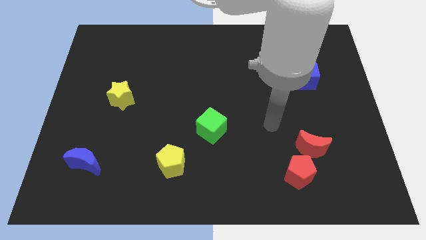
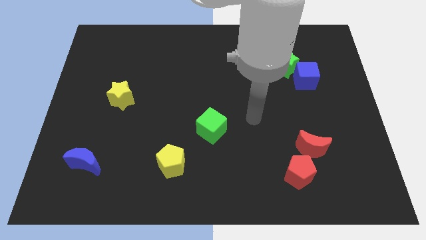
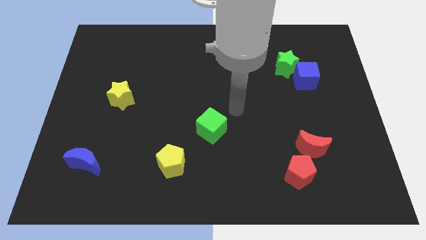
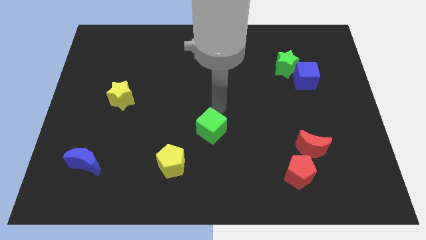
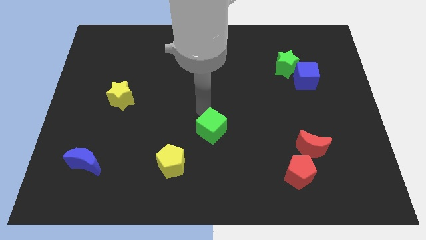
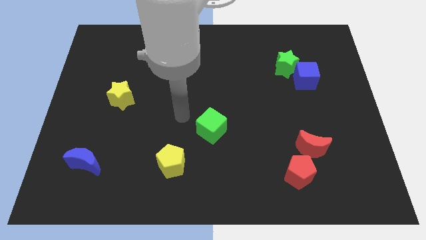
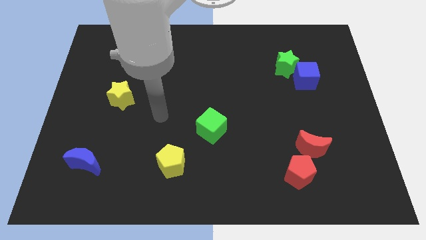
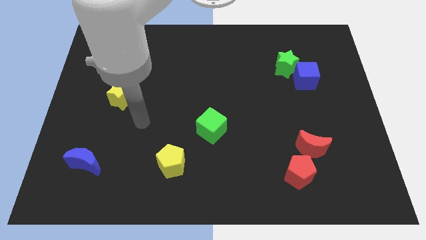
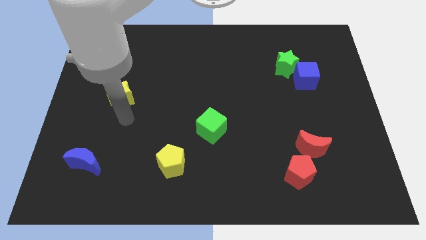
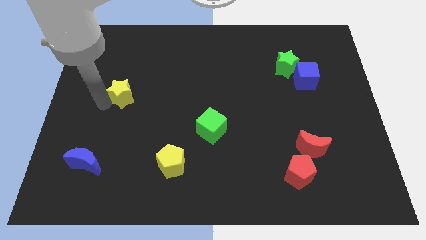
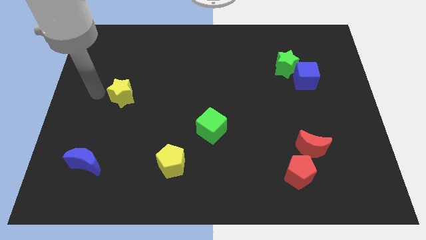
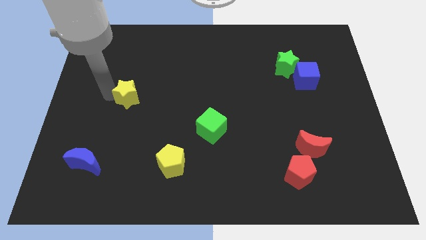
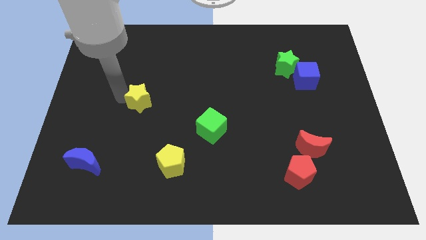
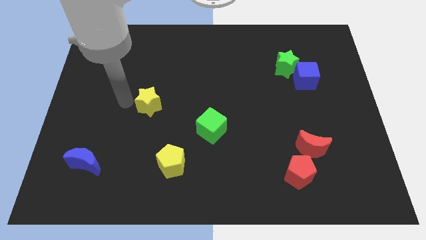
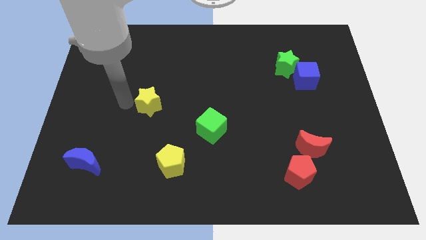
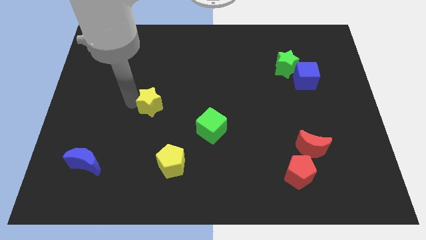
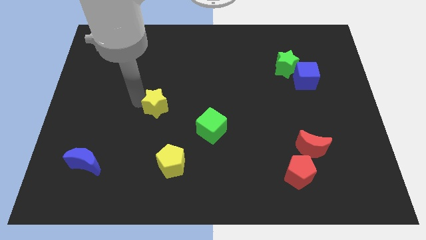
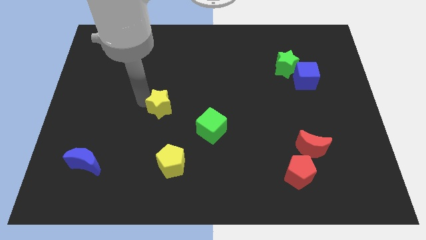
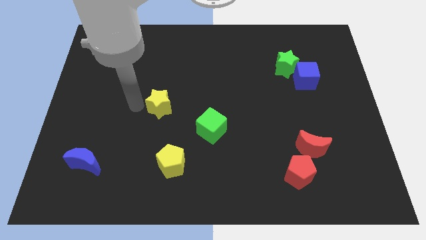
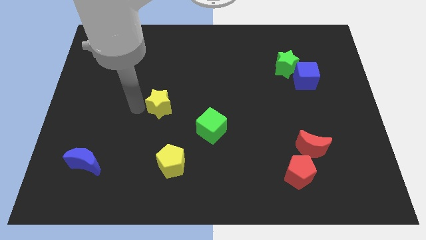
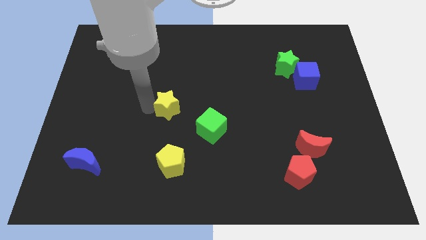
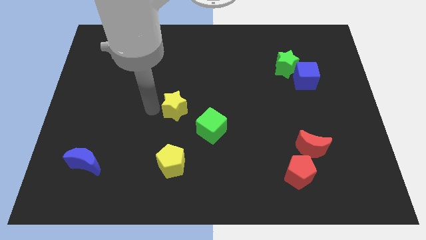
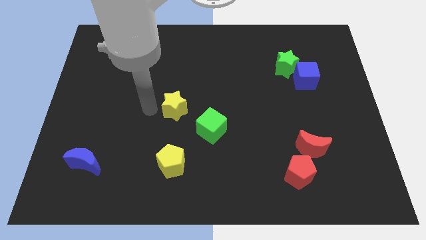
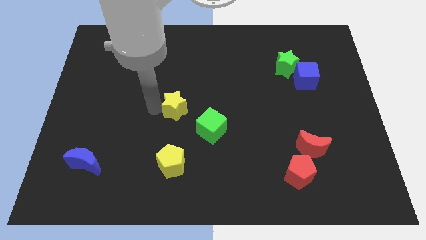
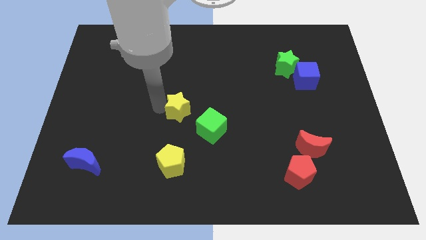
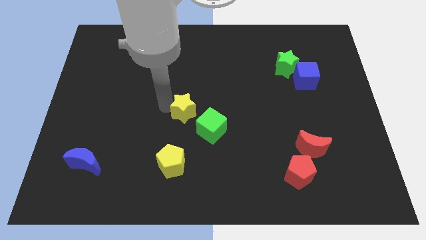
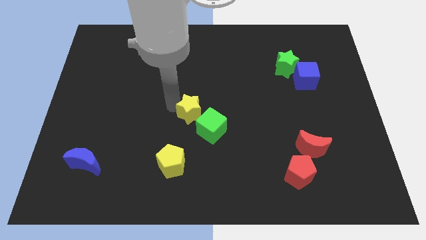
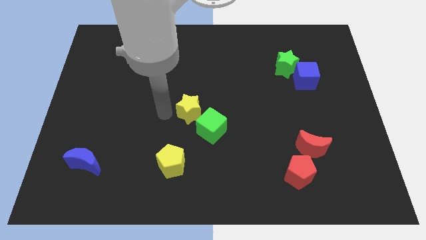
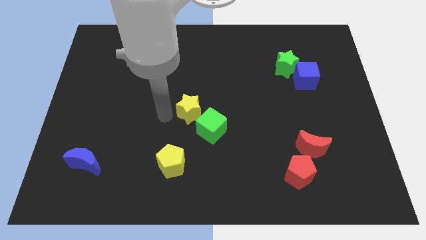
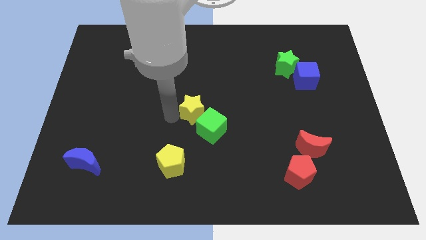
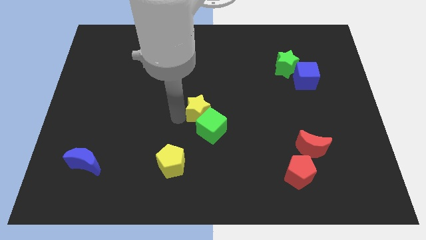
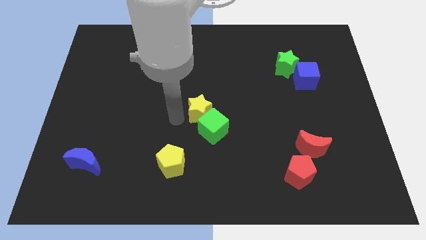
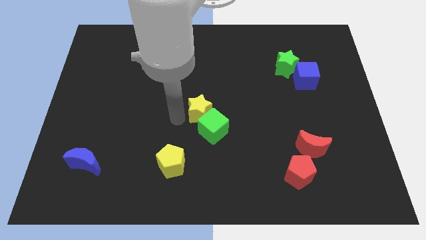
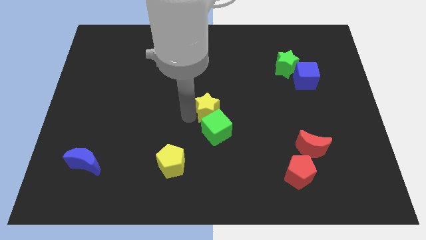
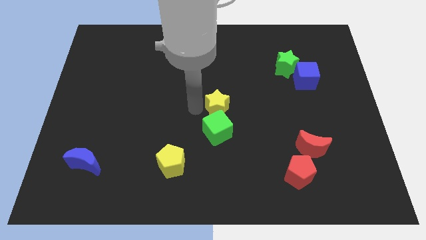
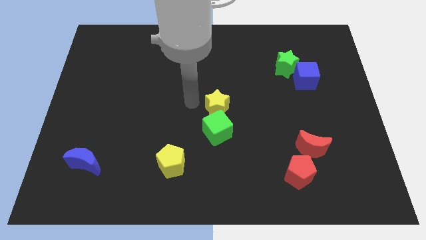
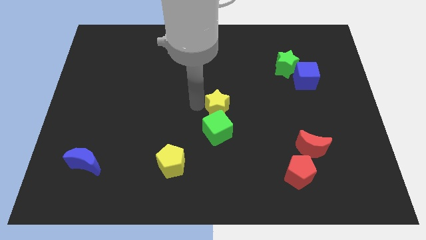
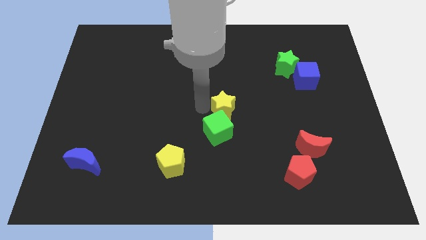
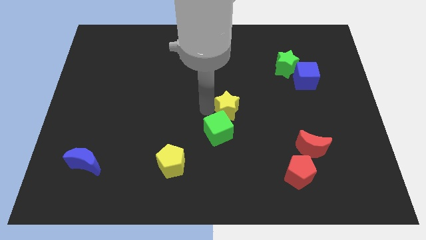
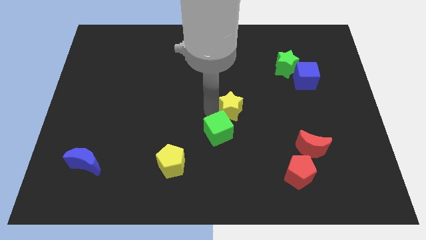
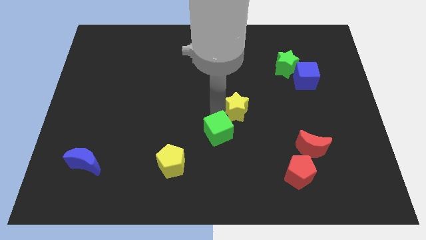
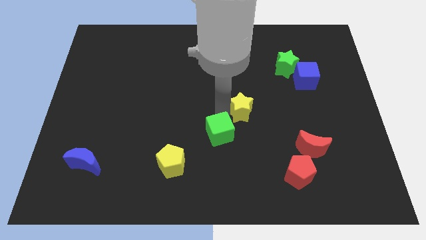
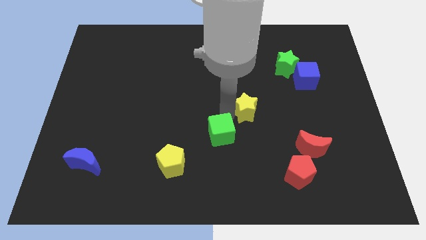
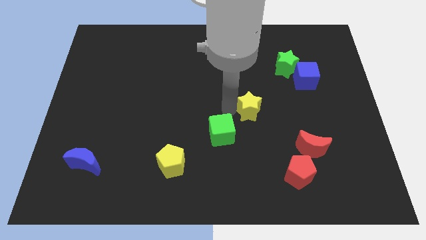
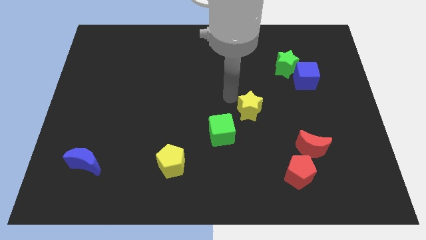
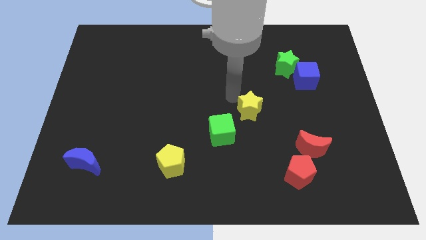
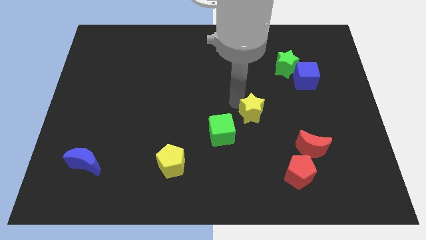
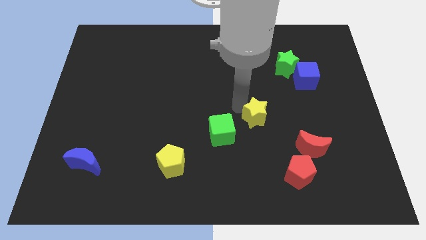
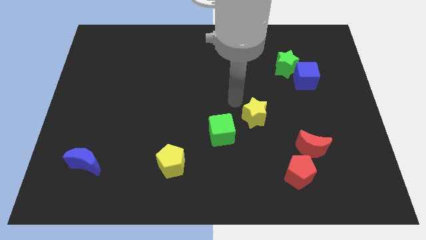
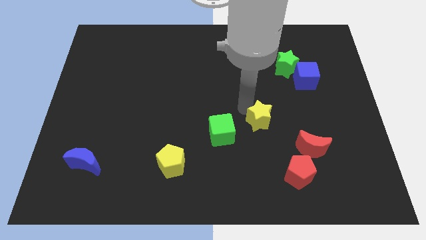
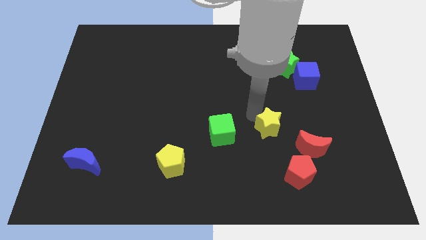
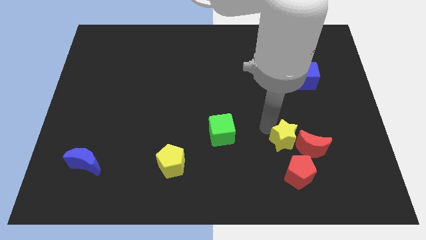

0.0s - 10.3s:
slide the yellow star next to the red moon

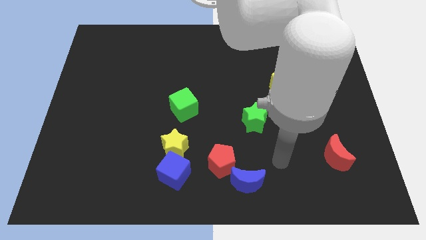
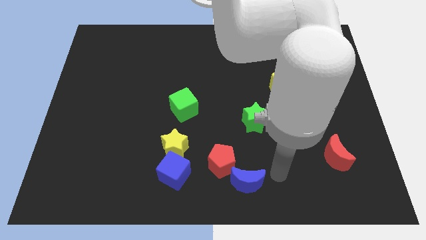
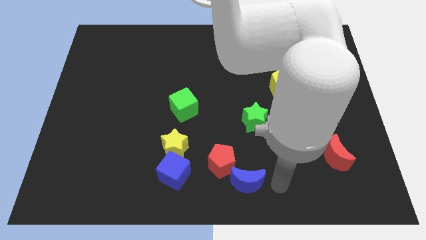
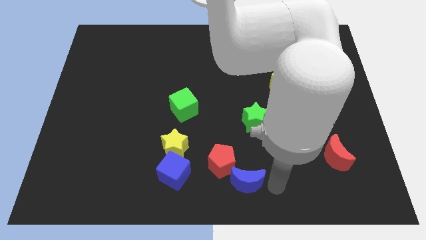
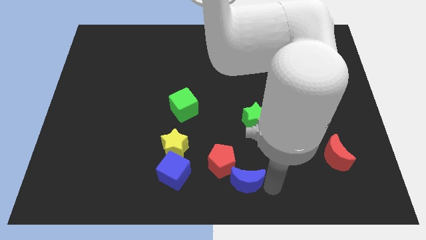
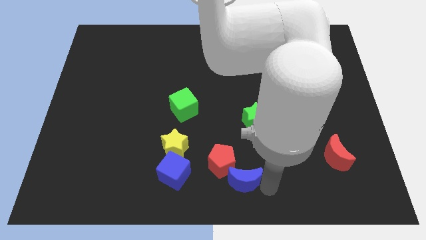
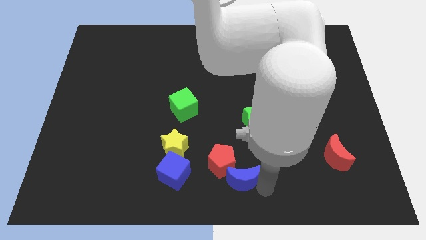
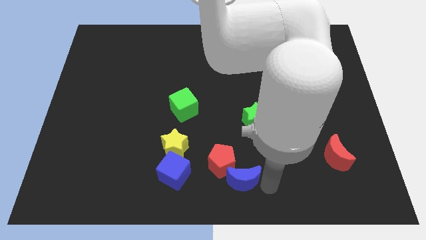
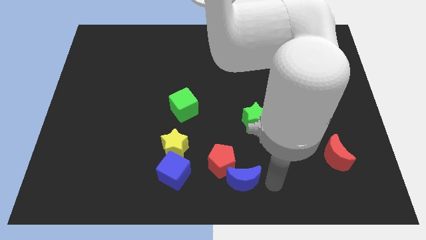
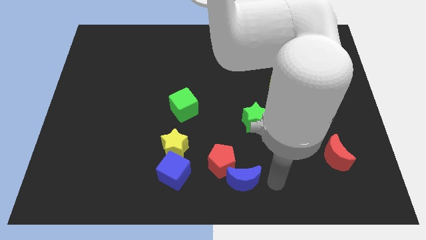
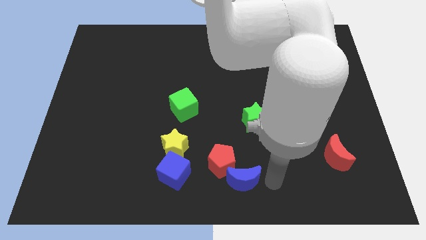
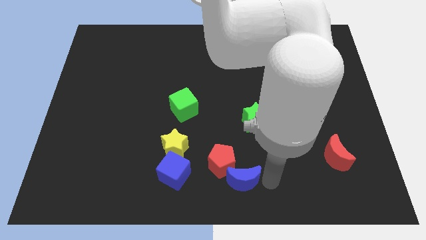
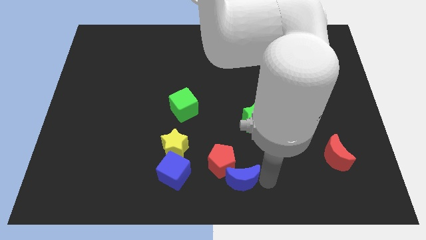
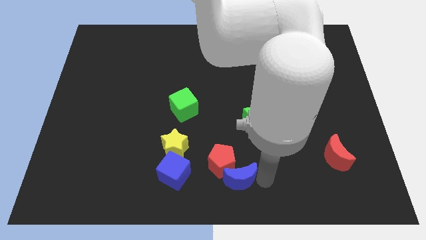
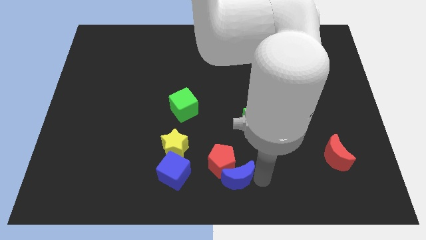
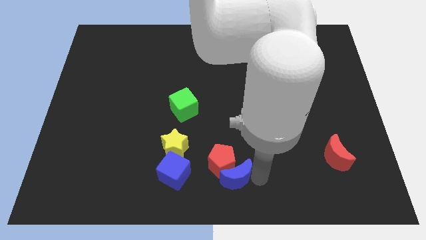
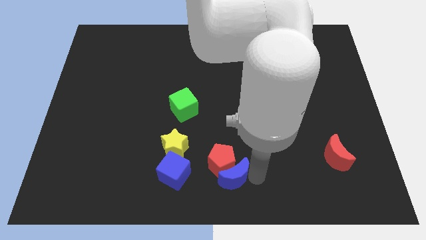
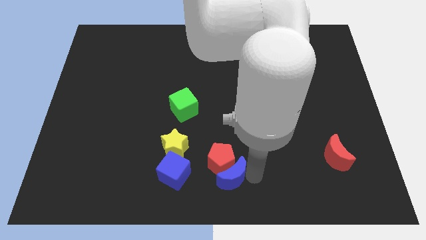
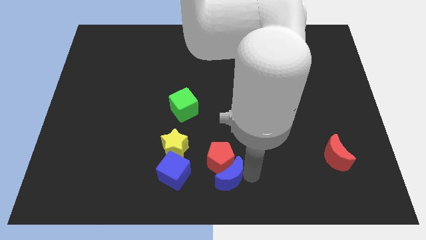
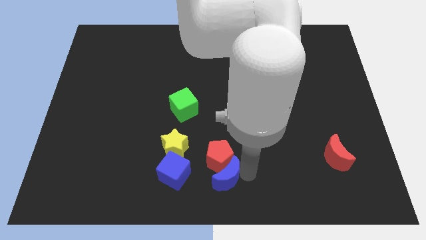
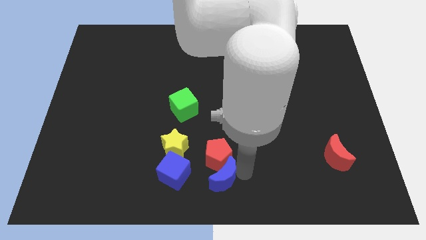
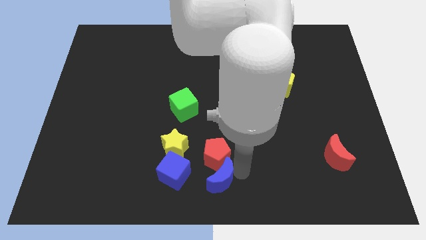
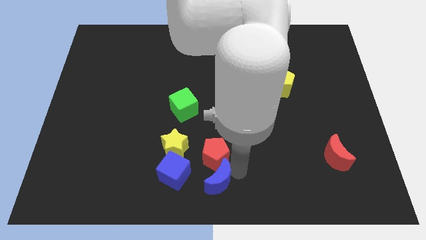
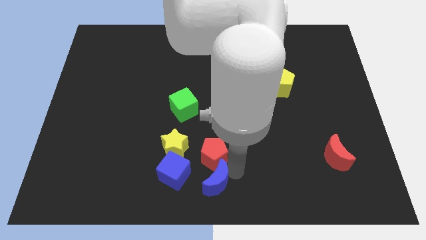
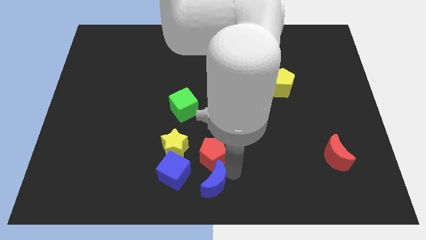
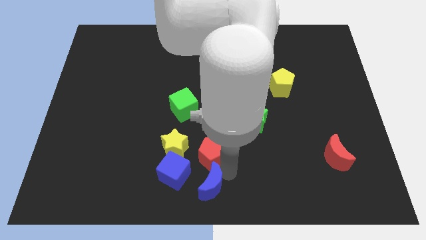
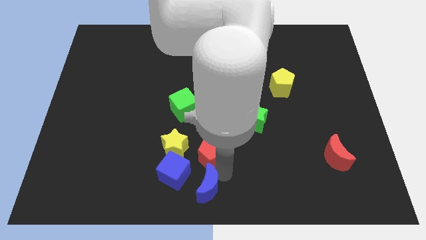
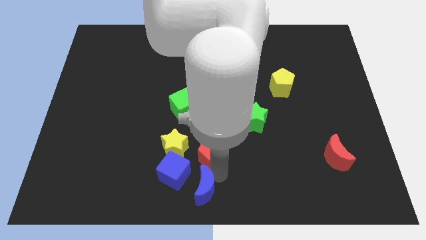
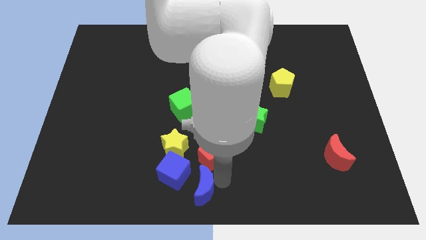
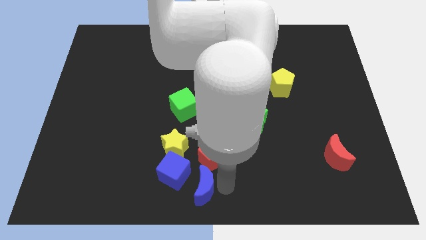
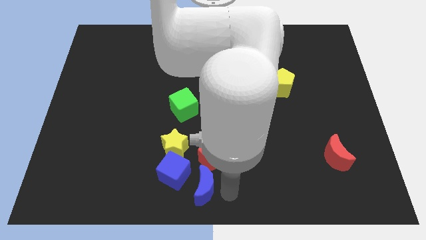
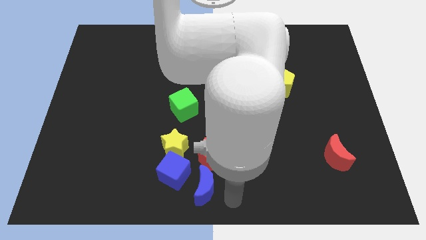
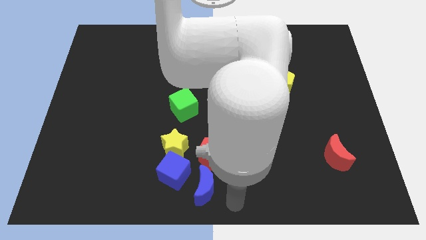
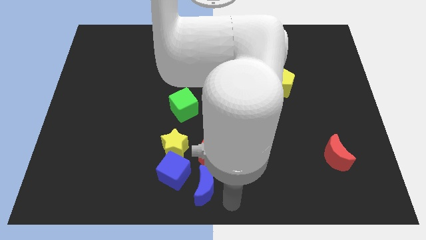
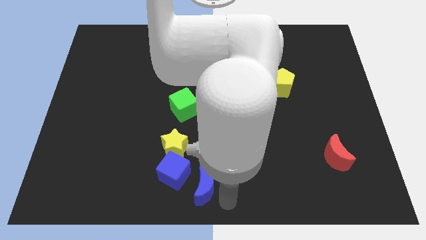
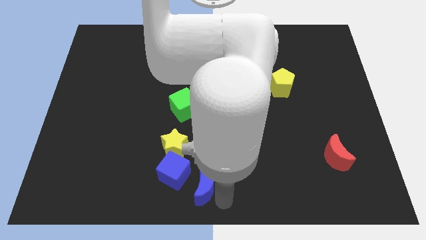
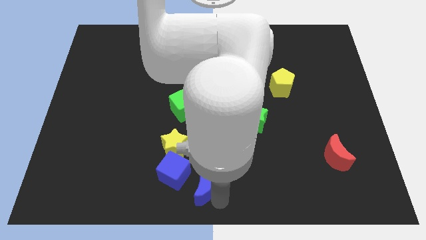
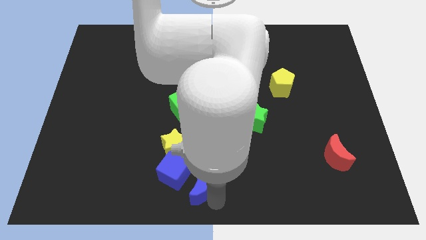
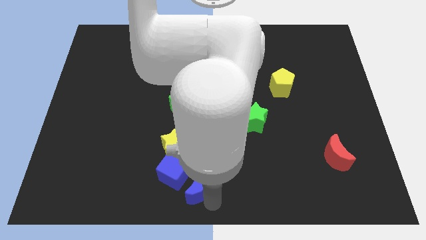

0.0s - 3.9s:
slide the blue moon to the blue cube
